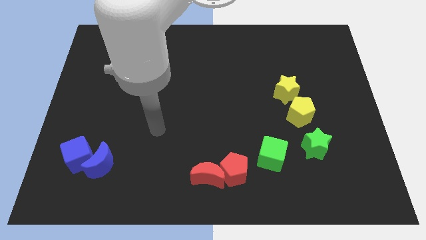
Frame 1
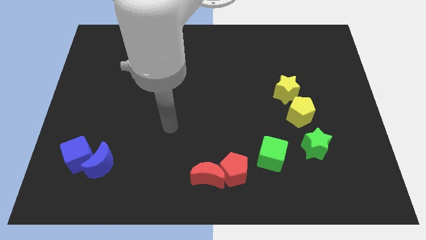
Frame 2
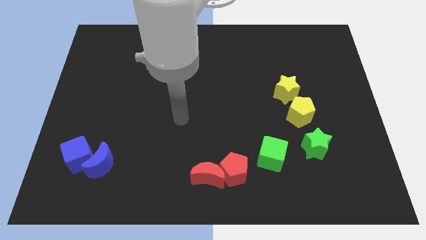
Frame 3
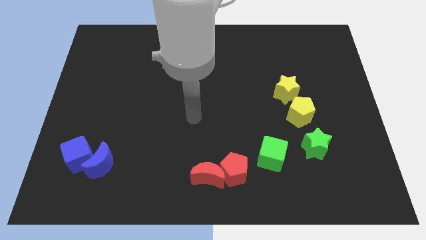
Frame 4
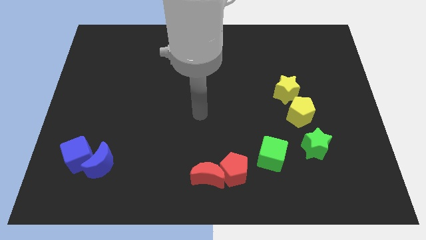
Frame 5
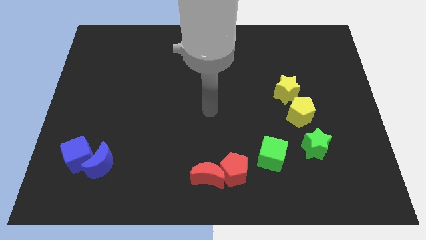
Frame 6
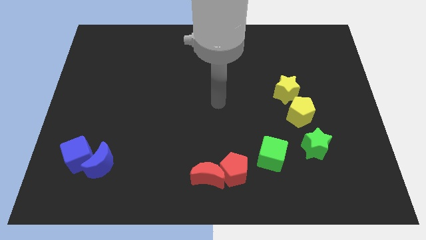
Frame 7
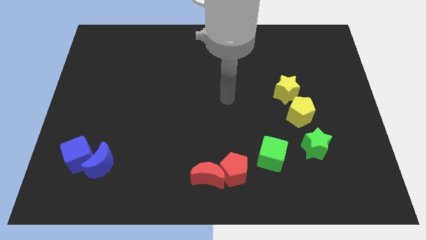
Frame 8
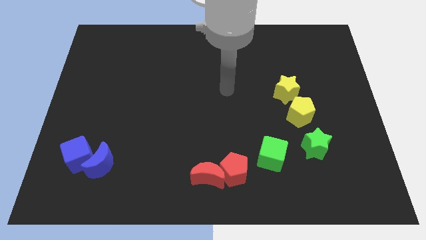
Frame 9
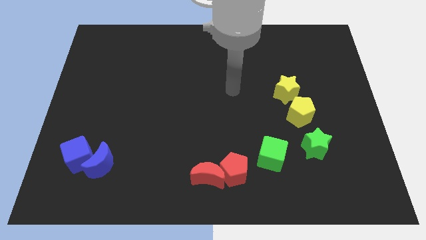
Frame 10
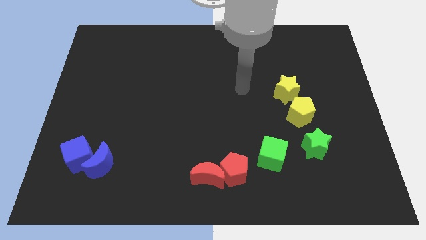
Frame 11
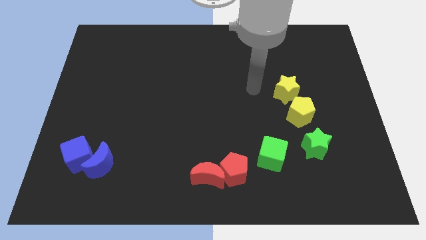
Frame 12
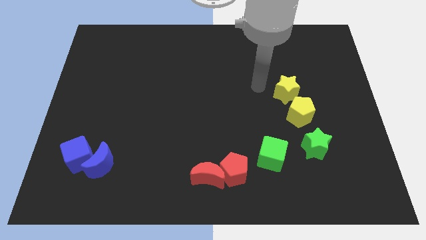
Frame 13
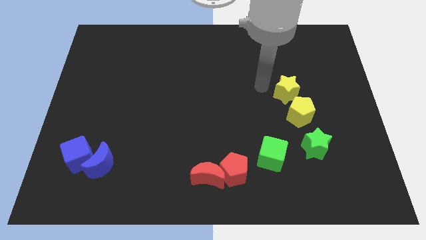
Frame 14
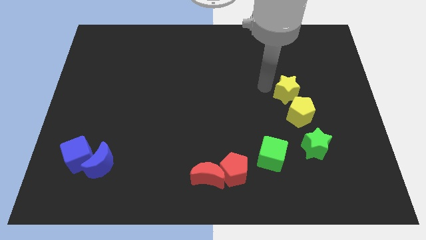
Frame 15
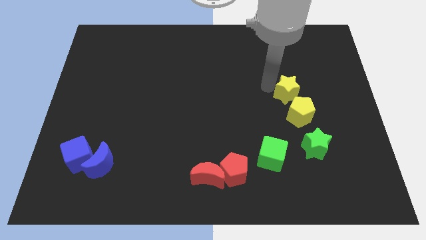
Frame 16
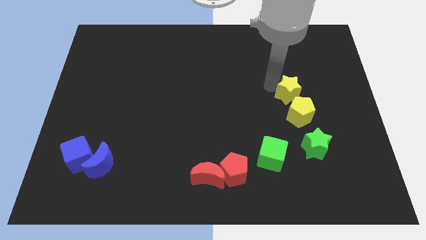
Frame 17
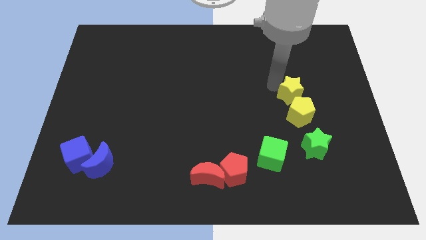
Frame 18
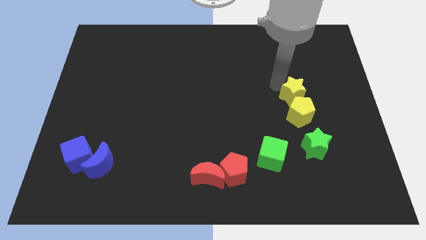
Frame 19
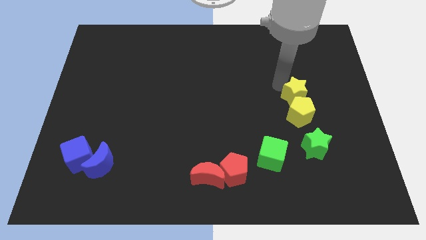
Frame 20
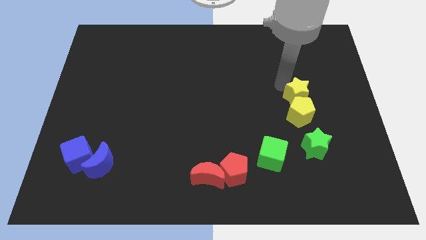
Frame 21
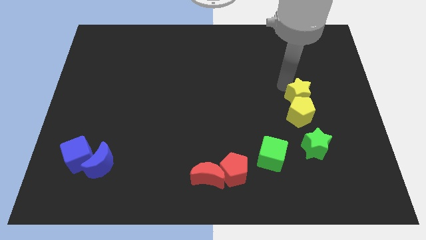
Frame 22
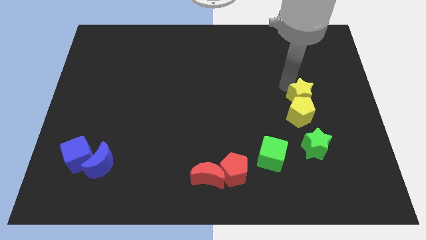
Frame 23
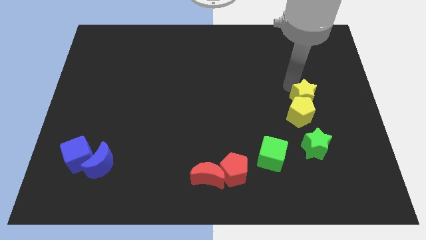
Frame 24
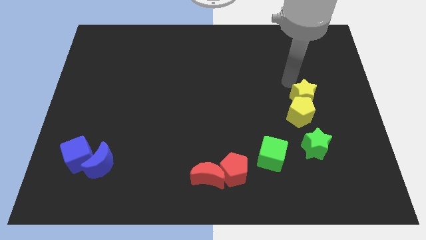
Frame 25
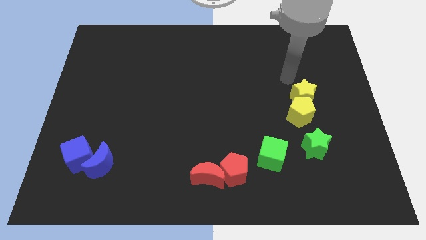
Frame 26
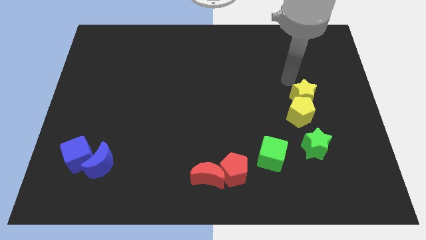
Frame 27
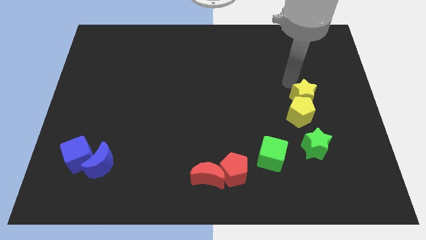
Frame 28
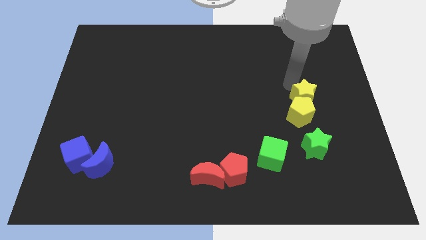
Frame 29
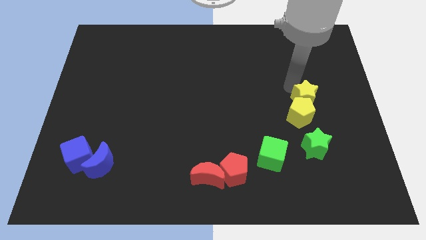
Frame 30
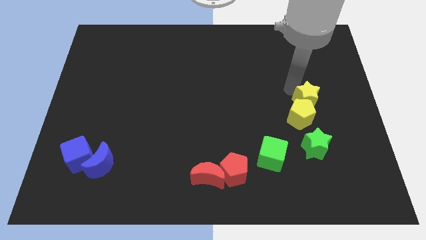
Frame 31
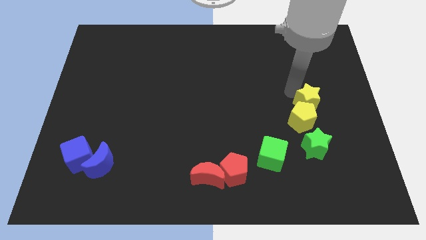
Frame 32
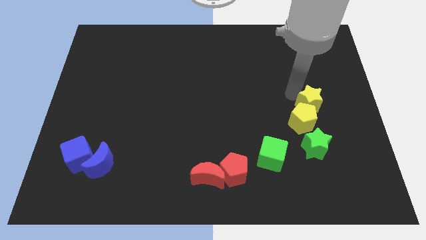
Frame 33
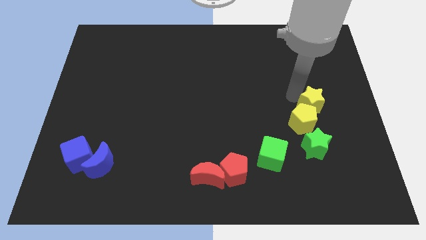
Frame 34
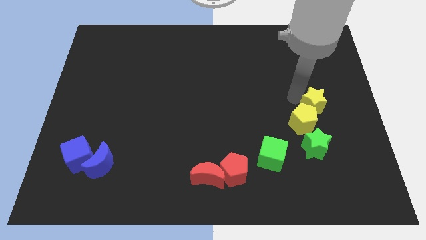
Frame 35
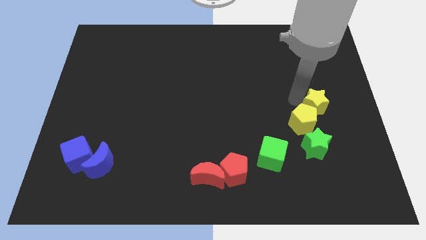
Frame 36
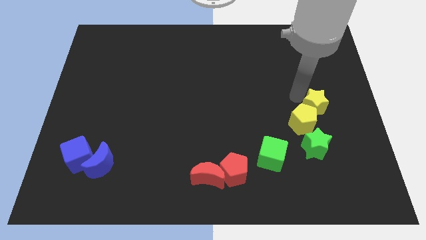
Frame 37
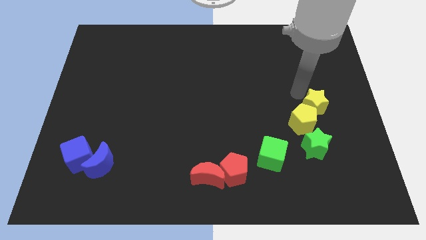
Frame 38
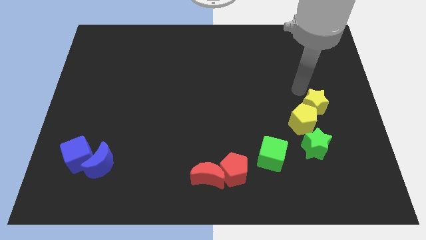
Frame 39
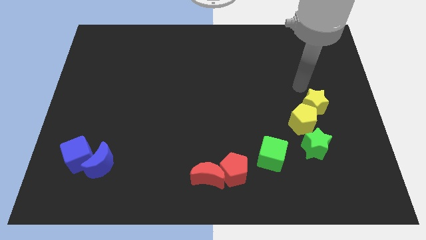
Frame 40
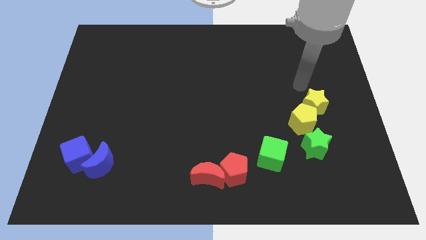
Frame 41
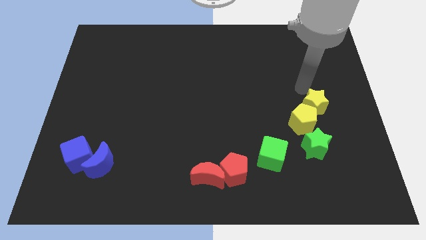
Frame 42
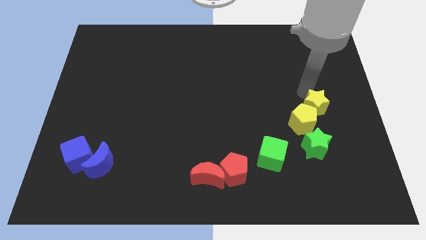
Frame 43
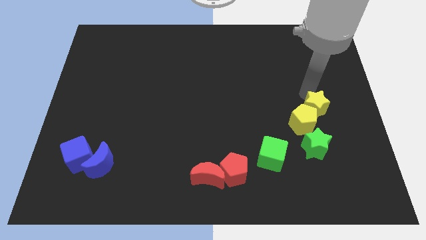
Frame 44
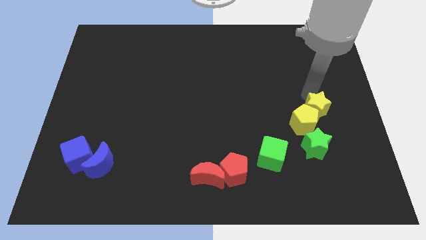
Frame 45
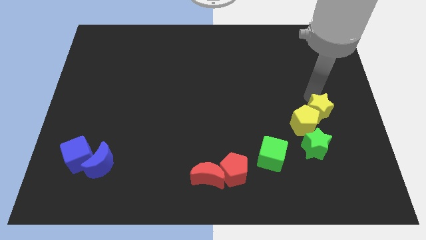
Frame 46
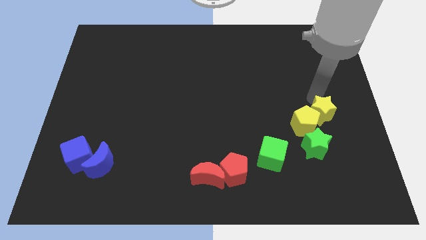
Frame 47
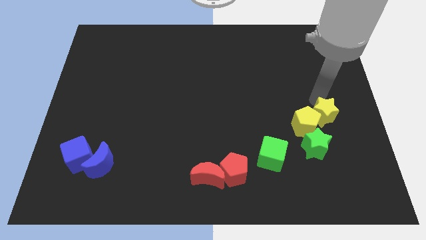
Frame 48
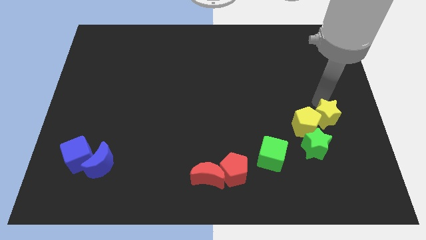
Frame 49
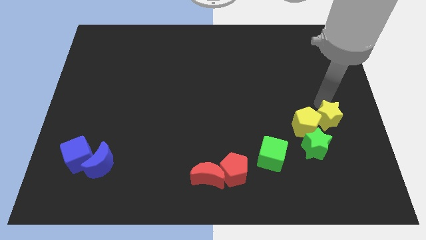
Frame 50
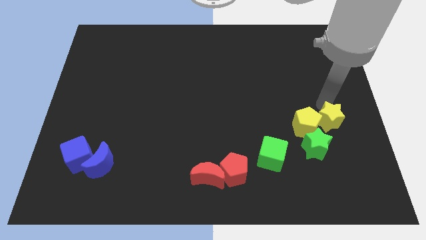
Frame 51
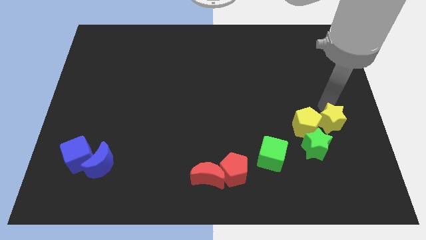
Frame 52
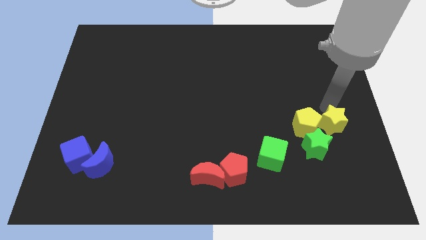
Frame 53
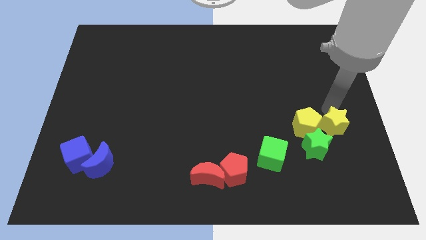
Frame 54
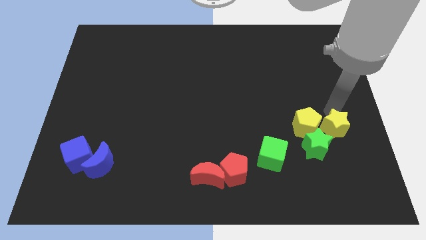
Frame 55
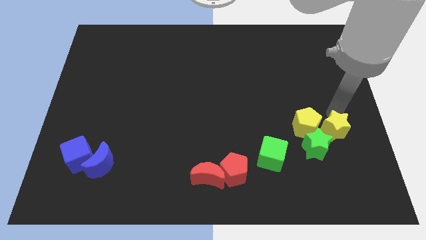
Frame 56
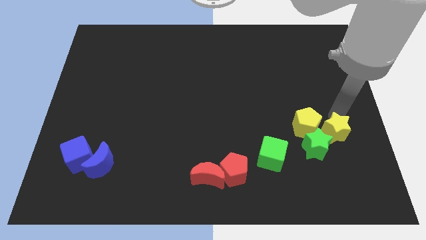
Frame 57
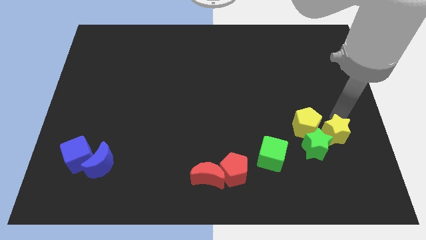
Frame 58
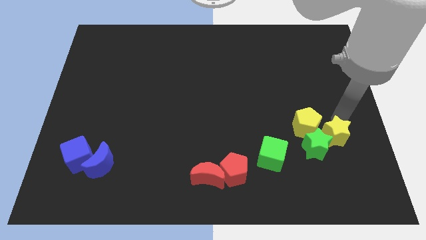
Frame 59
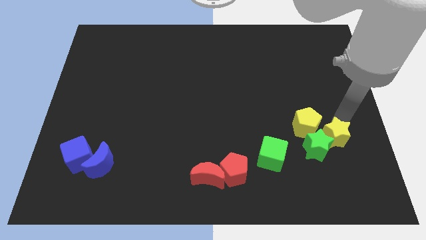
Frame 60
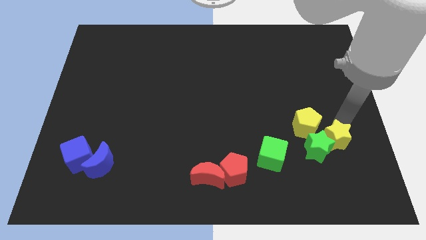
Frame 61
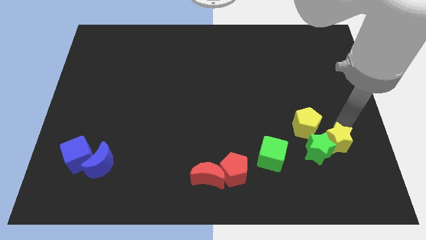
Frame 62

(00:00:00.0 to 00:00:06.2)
put the yellow star just right of the green cube

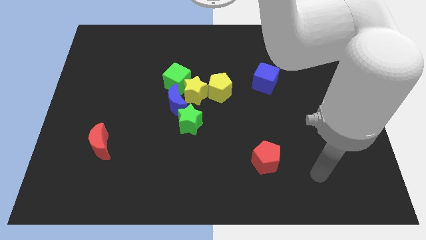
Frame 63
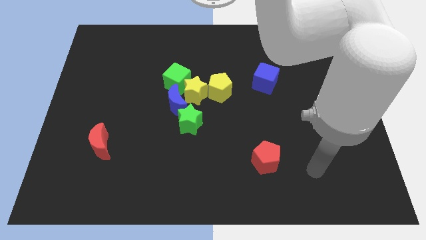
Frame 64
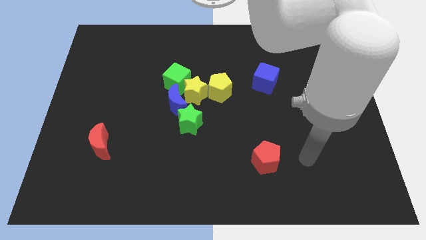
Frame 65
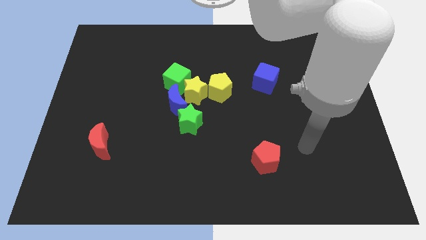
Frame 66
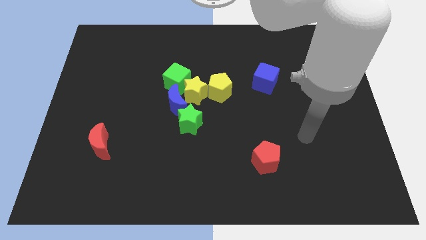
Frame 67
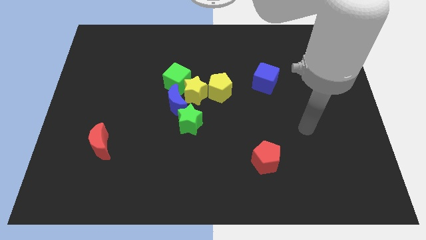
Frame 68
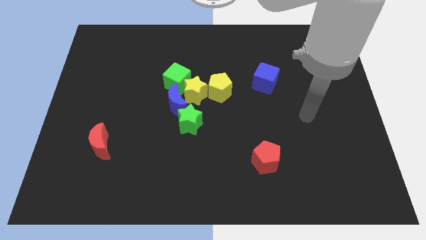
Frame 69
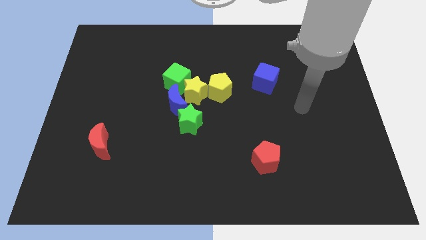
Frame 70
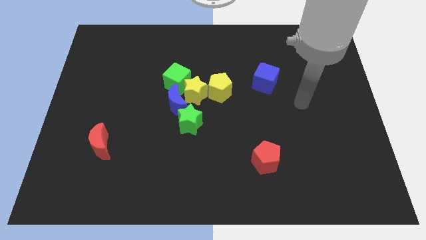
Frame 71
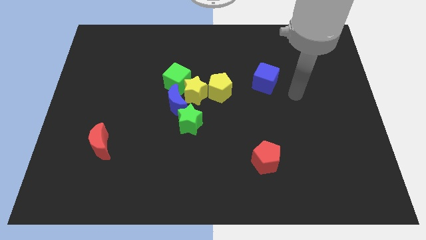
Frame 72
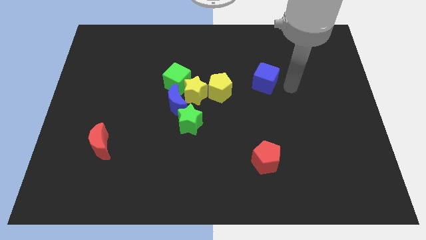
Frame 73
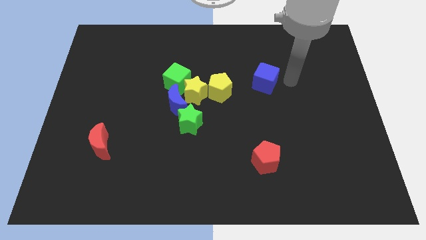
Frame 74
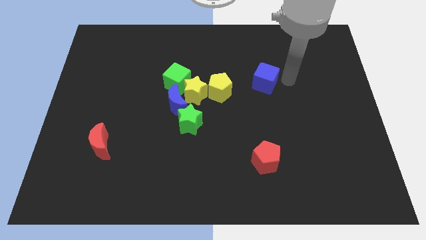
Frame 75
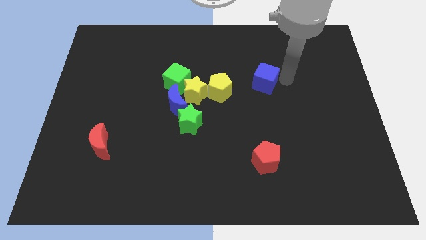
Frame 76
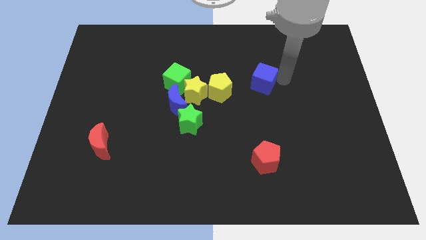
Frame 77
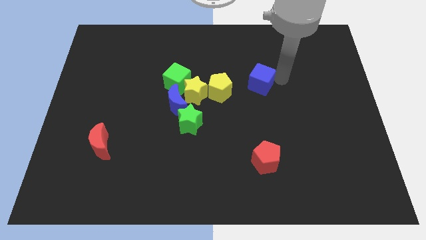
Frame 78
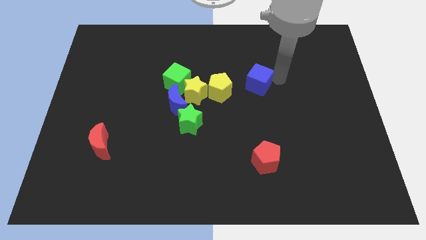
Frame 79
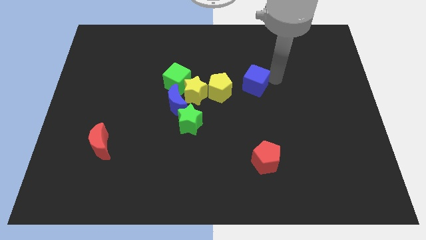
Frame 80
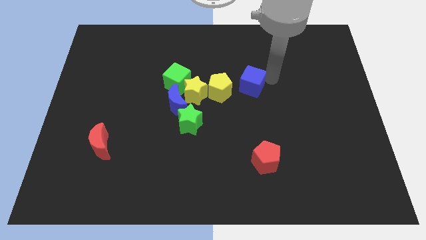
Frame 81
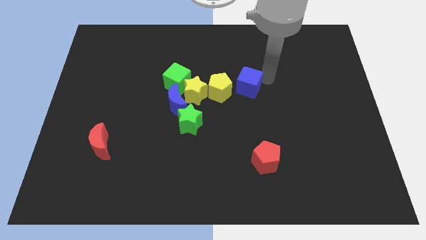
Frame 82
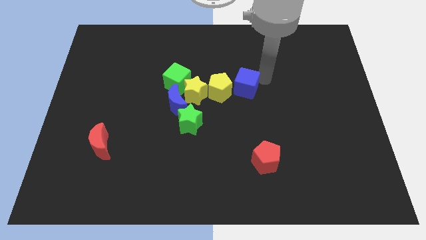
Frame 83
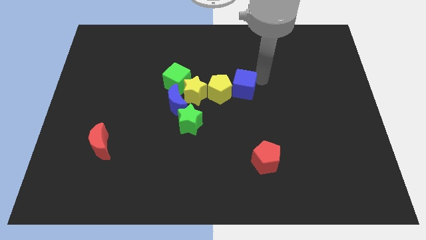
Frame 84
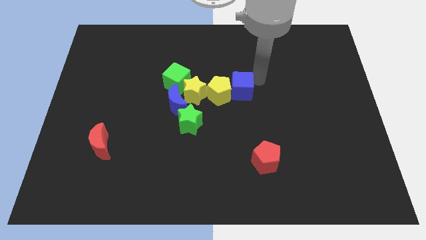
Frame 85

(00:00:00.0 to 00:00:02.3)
push the blue cube right of the green cube
